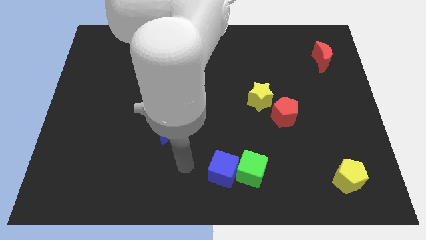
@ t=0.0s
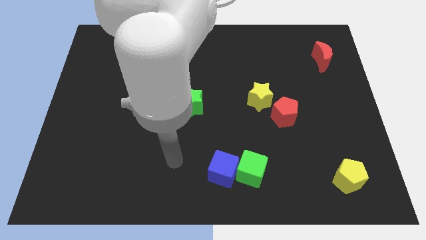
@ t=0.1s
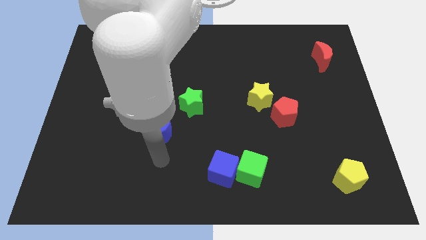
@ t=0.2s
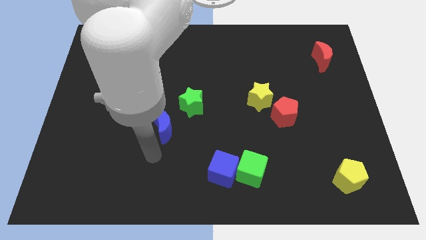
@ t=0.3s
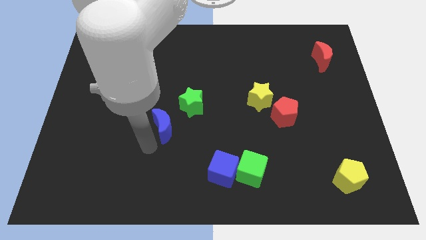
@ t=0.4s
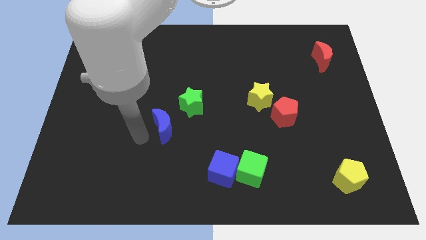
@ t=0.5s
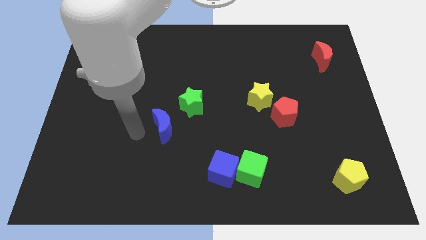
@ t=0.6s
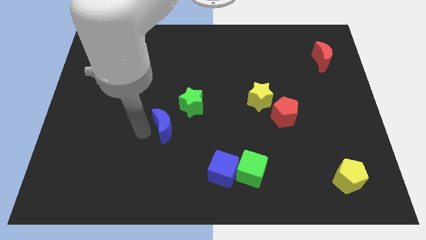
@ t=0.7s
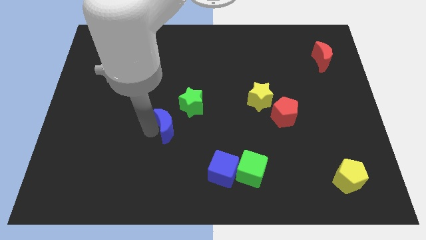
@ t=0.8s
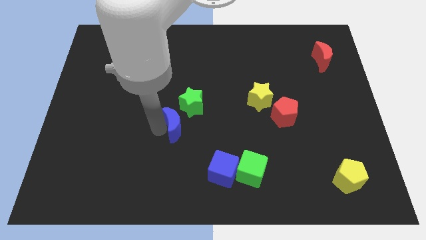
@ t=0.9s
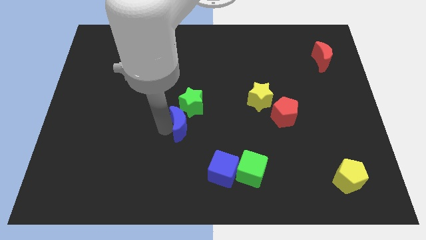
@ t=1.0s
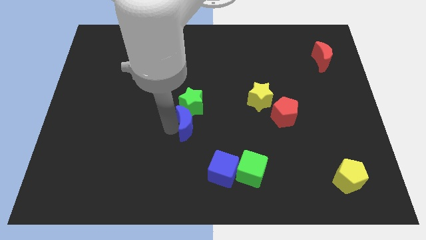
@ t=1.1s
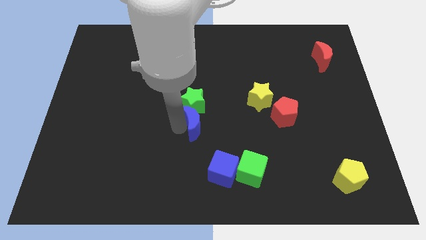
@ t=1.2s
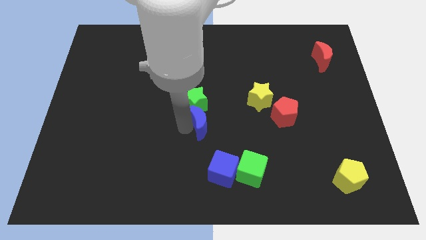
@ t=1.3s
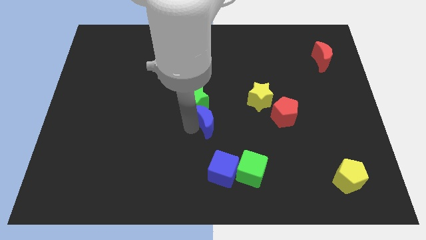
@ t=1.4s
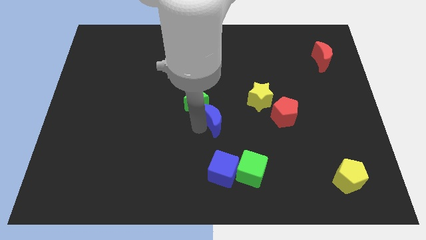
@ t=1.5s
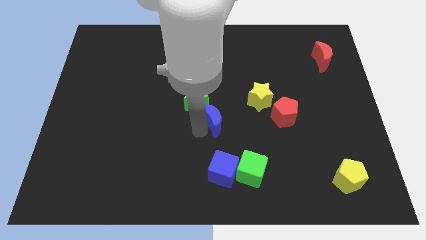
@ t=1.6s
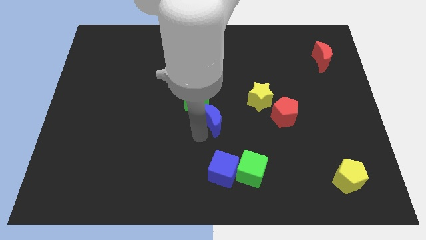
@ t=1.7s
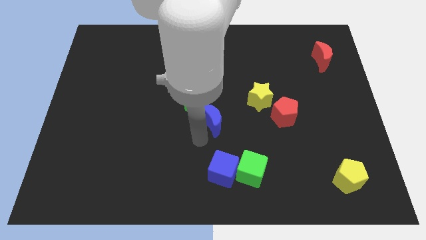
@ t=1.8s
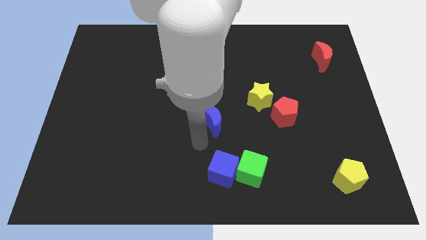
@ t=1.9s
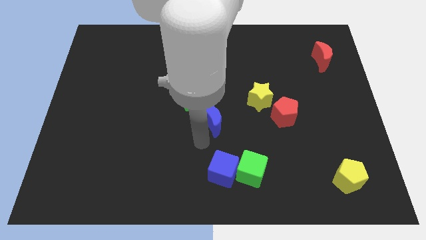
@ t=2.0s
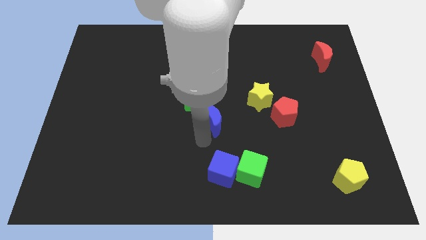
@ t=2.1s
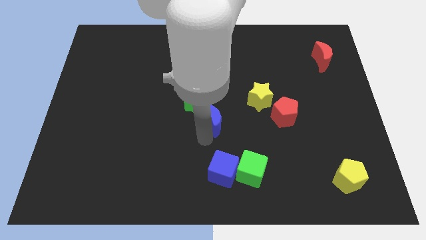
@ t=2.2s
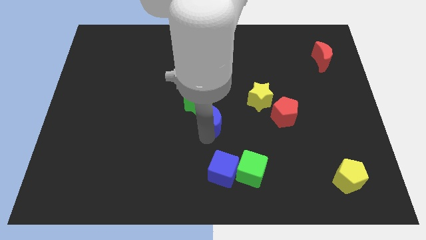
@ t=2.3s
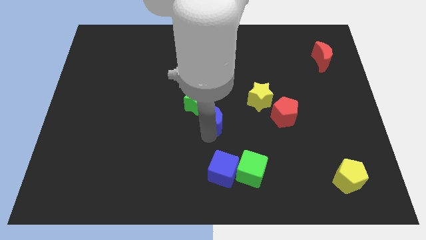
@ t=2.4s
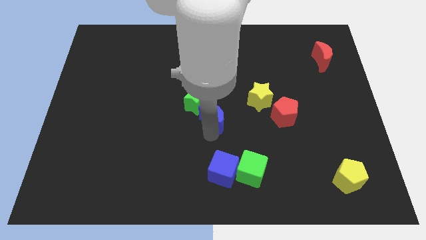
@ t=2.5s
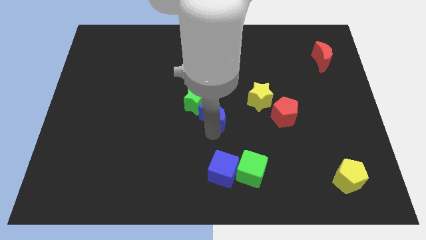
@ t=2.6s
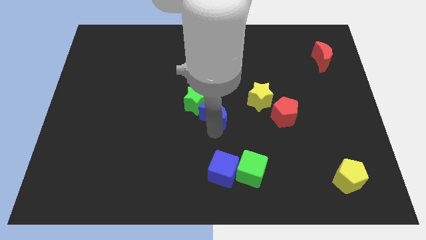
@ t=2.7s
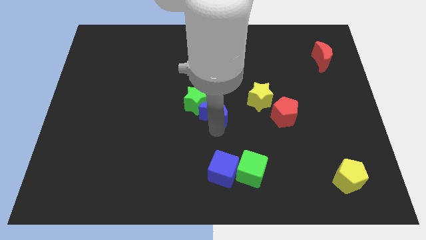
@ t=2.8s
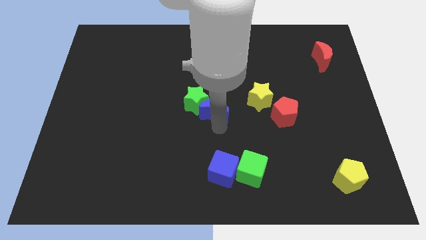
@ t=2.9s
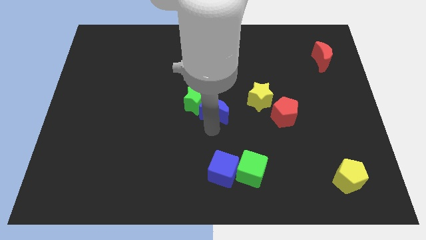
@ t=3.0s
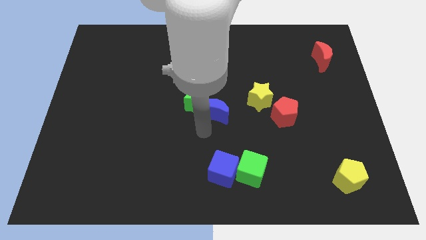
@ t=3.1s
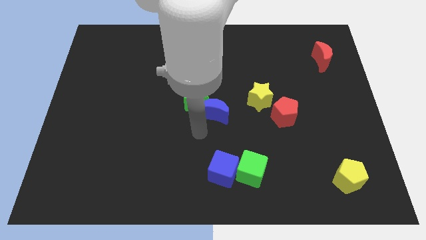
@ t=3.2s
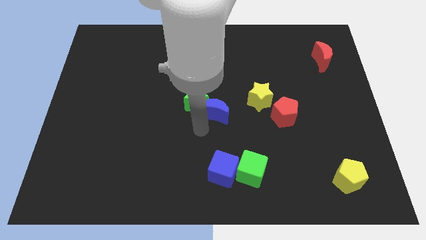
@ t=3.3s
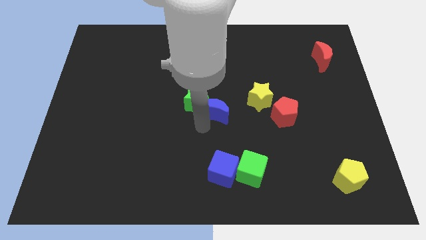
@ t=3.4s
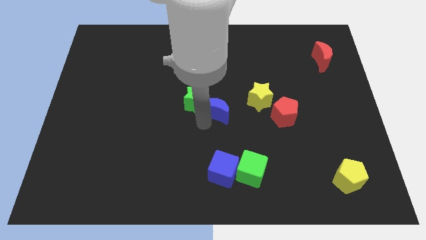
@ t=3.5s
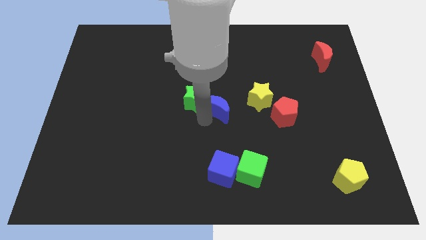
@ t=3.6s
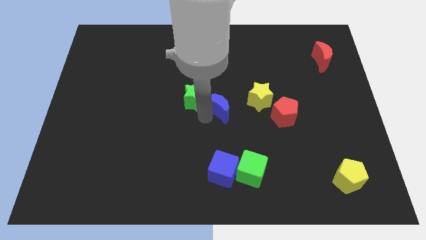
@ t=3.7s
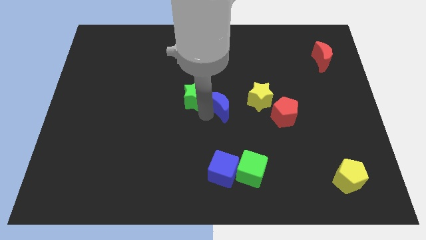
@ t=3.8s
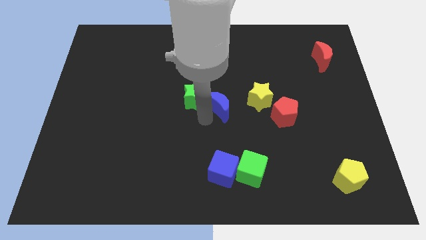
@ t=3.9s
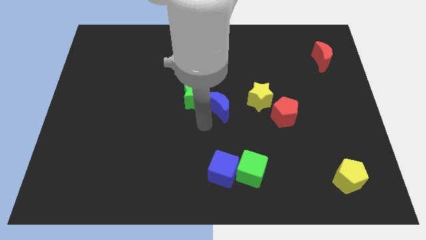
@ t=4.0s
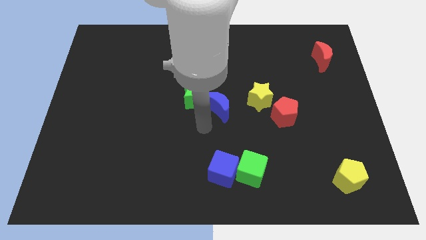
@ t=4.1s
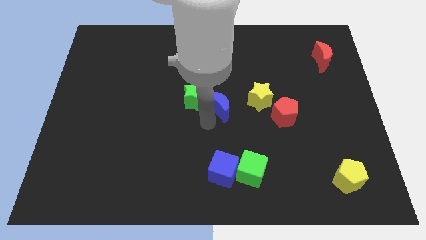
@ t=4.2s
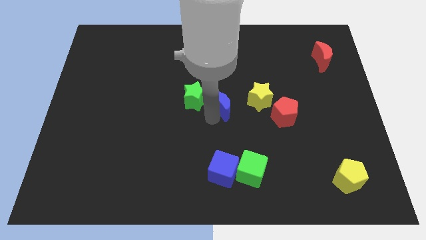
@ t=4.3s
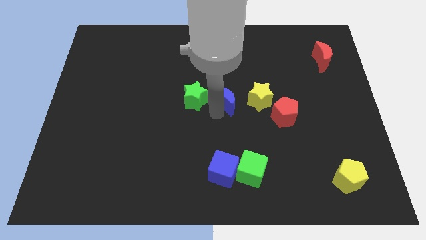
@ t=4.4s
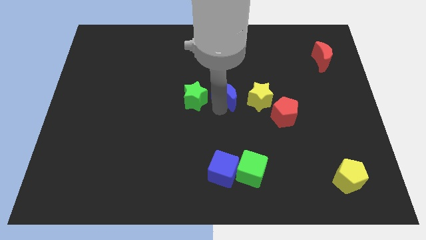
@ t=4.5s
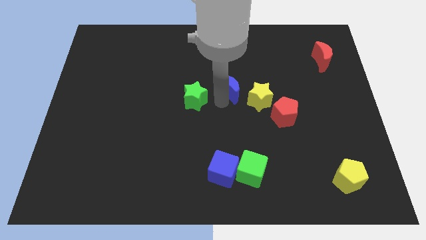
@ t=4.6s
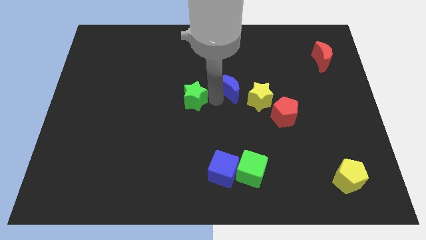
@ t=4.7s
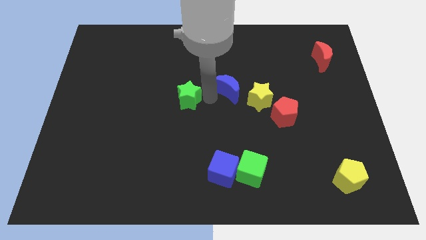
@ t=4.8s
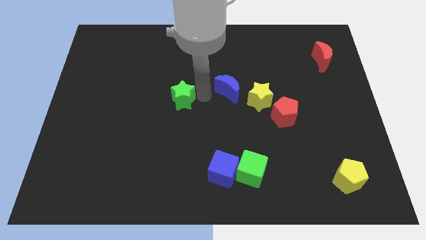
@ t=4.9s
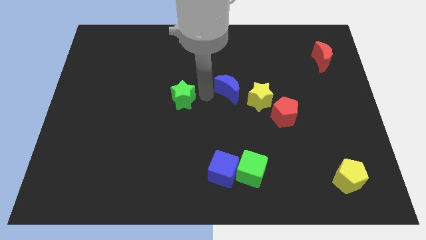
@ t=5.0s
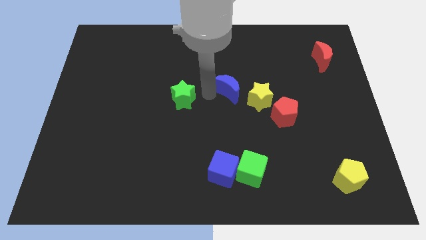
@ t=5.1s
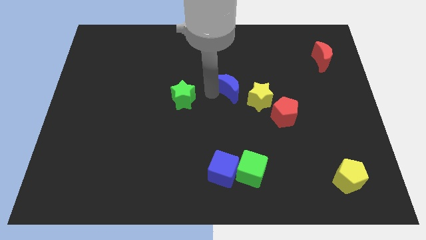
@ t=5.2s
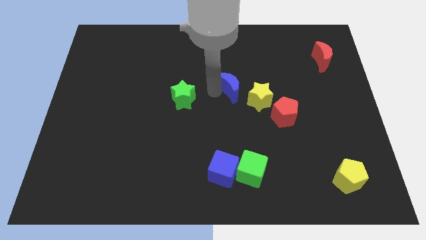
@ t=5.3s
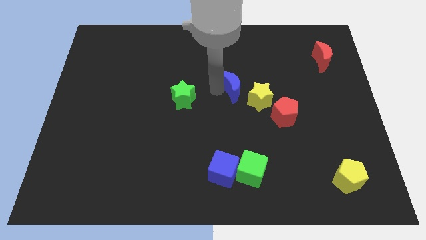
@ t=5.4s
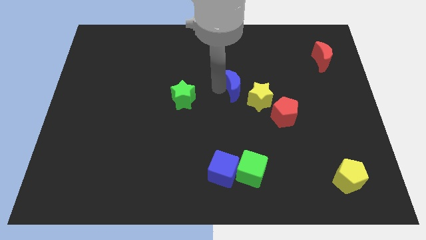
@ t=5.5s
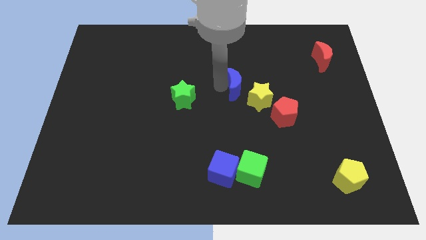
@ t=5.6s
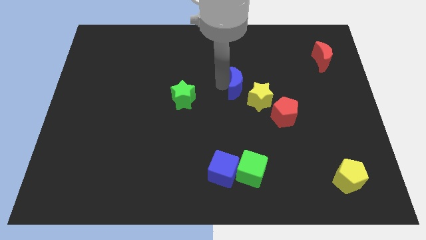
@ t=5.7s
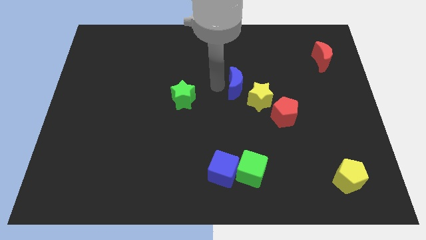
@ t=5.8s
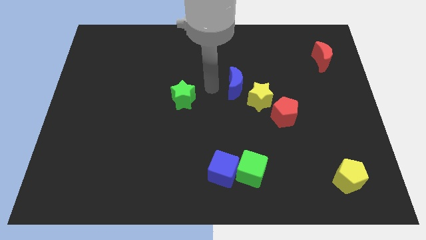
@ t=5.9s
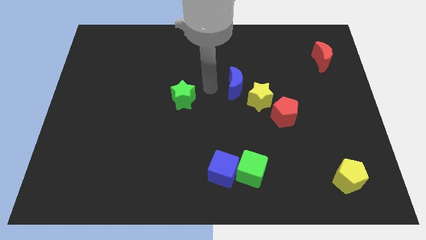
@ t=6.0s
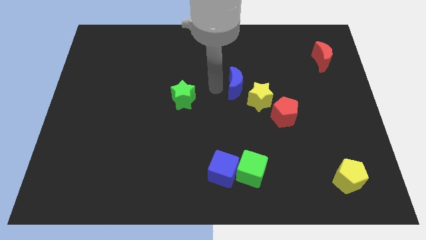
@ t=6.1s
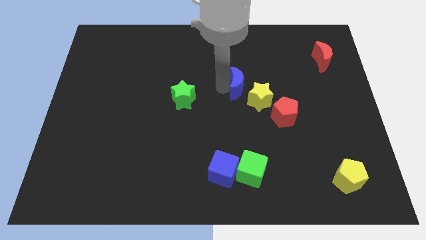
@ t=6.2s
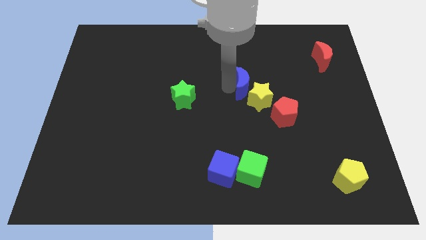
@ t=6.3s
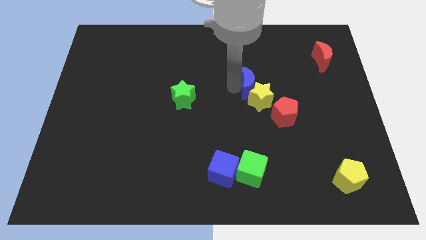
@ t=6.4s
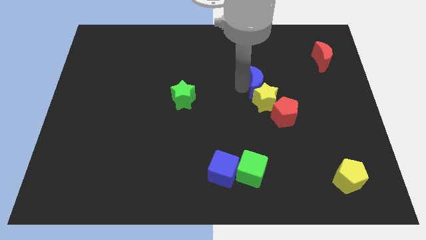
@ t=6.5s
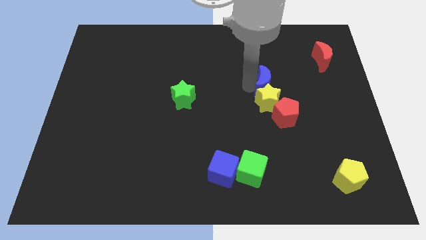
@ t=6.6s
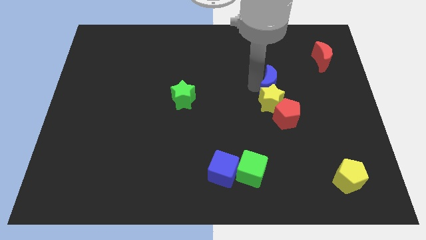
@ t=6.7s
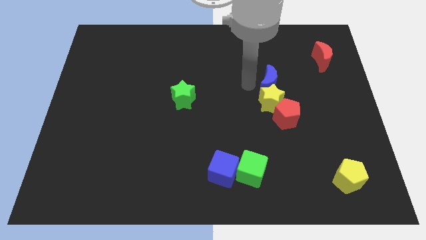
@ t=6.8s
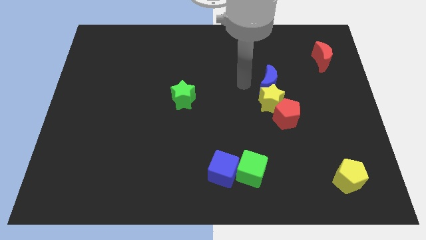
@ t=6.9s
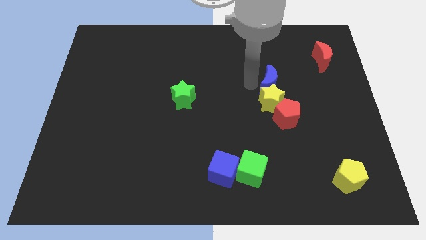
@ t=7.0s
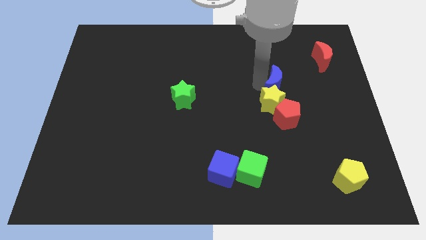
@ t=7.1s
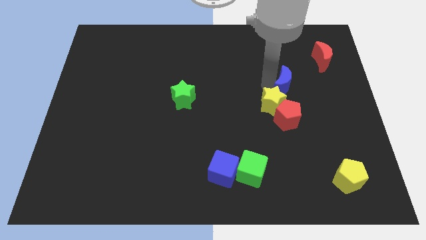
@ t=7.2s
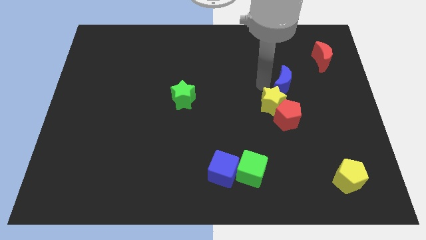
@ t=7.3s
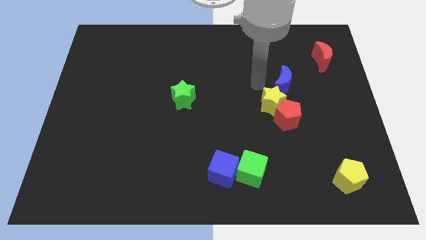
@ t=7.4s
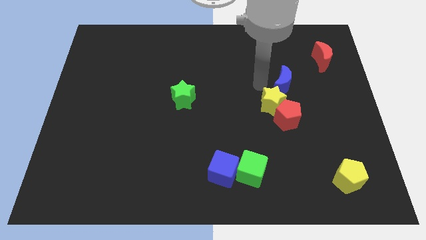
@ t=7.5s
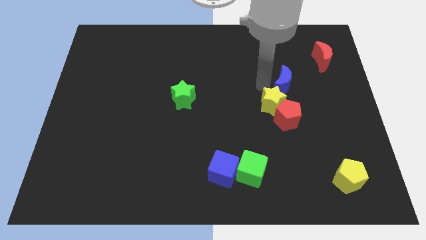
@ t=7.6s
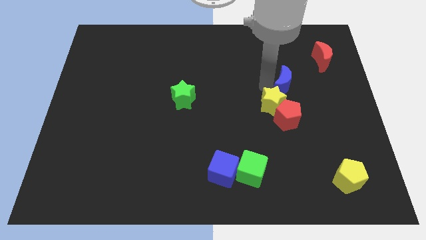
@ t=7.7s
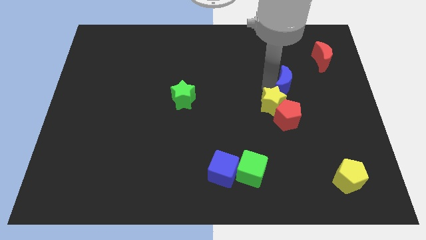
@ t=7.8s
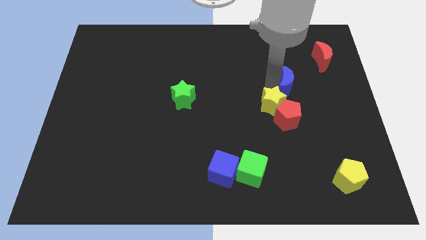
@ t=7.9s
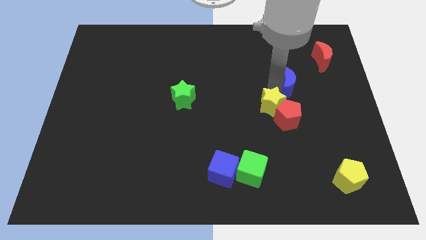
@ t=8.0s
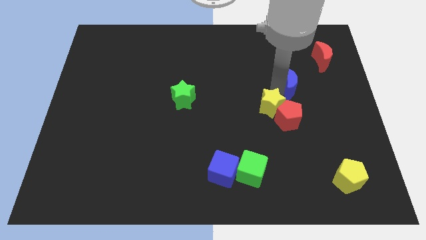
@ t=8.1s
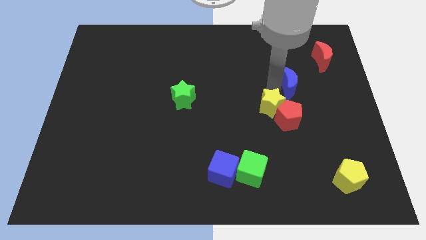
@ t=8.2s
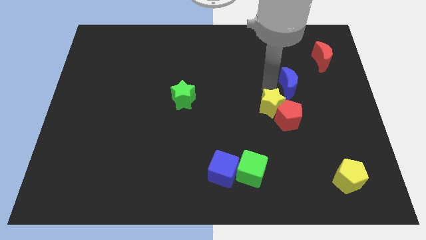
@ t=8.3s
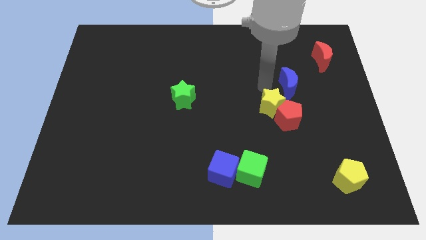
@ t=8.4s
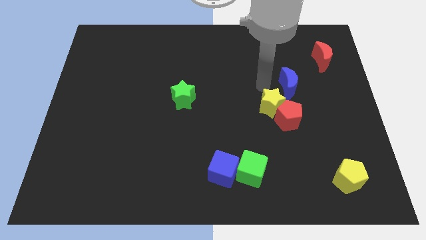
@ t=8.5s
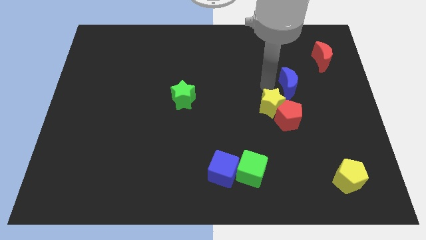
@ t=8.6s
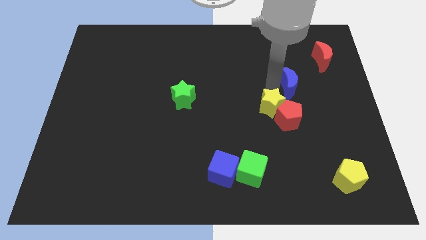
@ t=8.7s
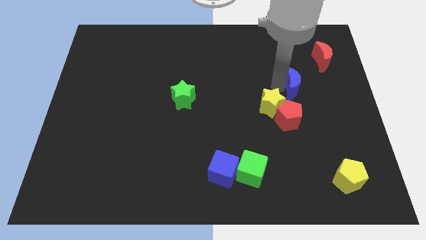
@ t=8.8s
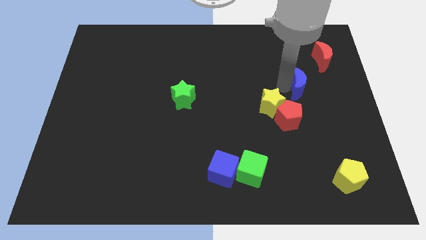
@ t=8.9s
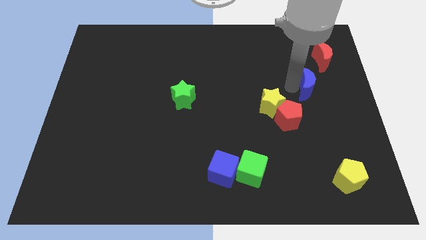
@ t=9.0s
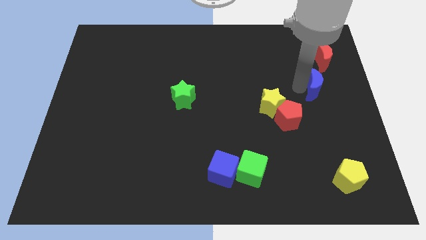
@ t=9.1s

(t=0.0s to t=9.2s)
push the blue moon below the red moon
